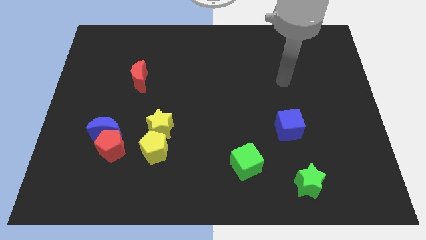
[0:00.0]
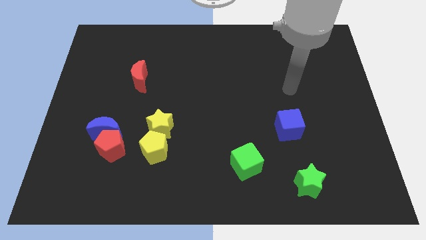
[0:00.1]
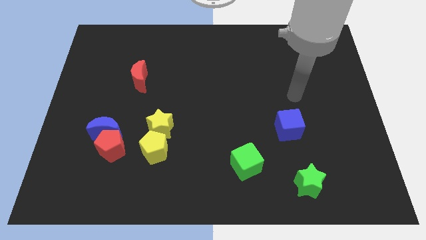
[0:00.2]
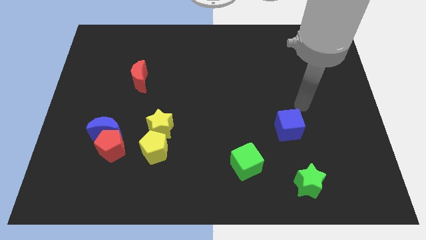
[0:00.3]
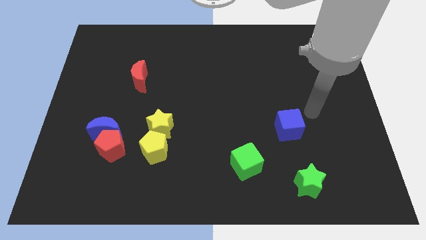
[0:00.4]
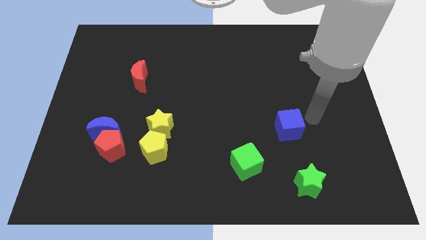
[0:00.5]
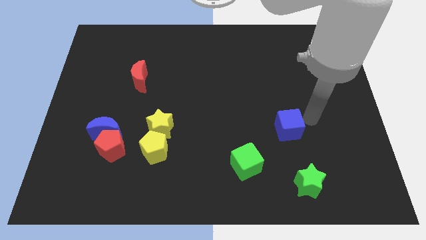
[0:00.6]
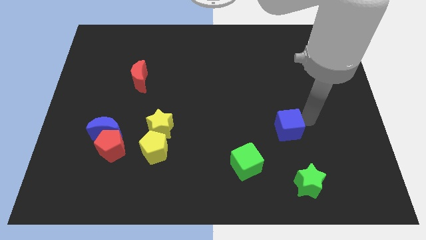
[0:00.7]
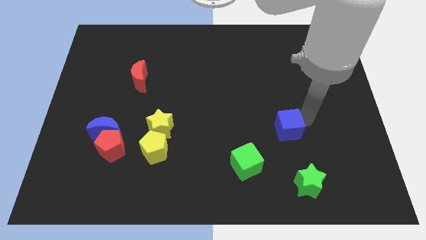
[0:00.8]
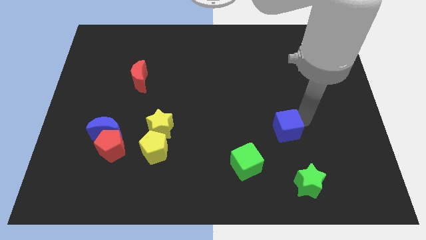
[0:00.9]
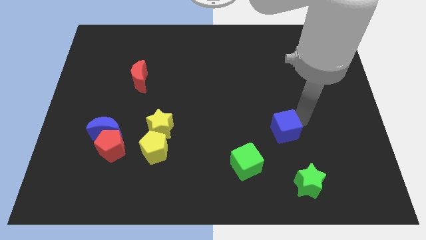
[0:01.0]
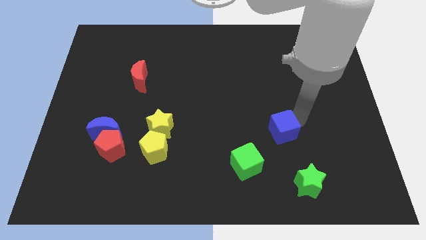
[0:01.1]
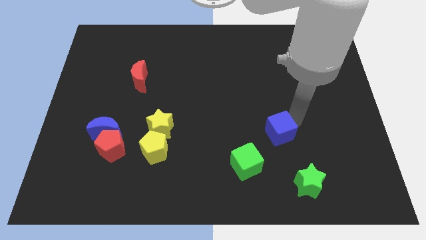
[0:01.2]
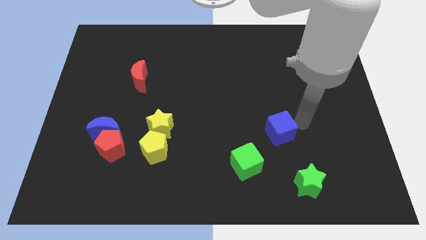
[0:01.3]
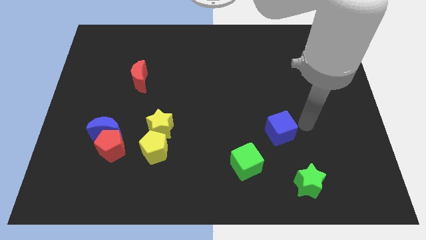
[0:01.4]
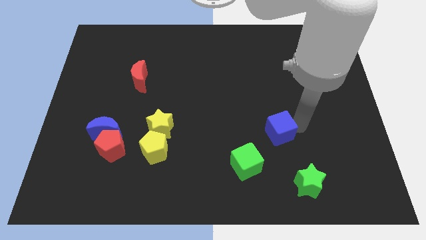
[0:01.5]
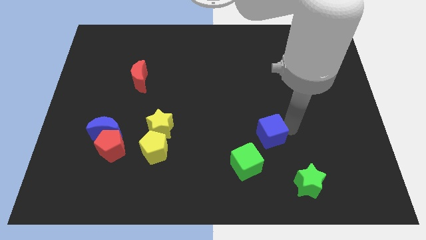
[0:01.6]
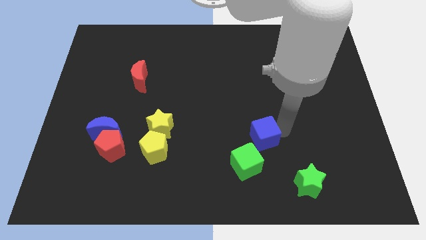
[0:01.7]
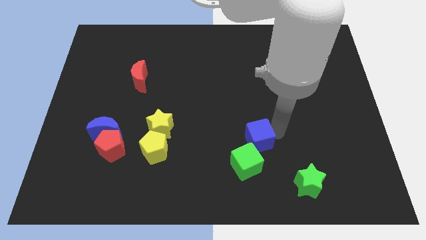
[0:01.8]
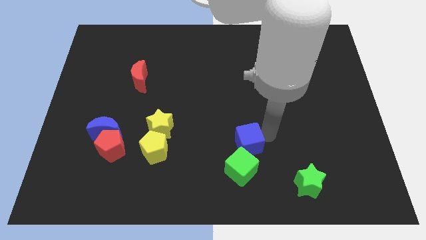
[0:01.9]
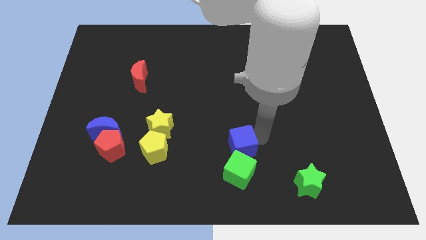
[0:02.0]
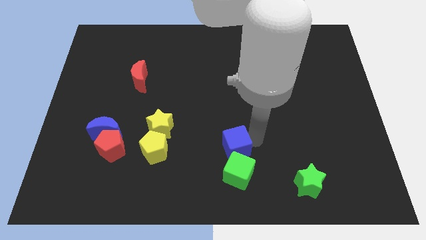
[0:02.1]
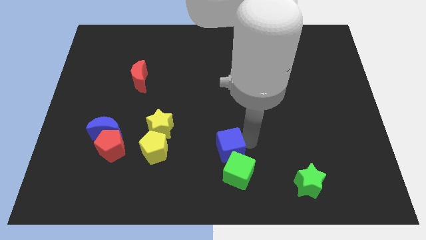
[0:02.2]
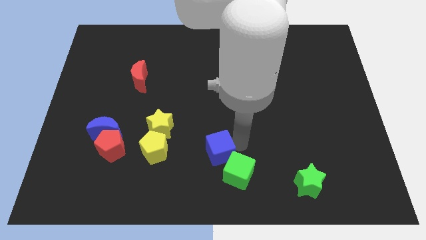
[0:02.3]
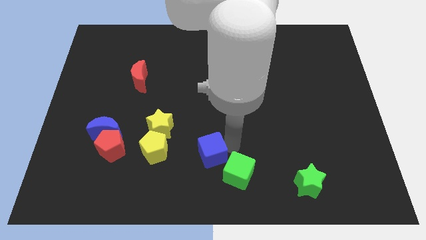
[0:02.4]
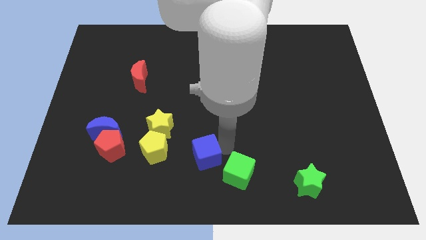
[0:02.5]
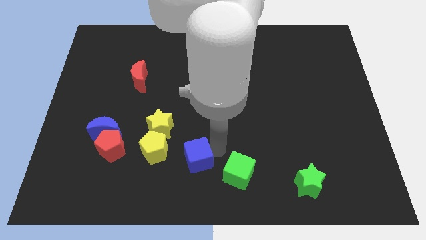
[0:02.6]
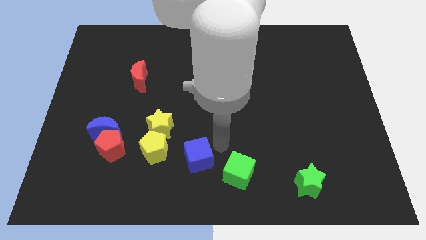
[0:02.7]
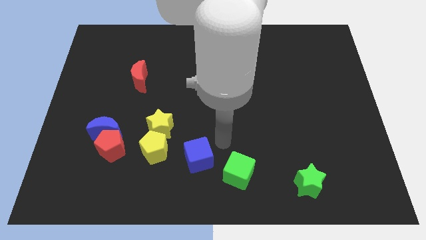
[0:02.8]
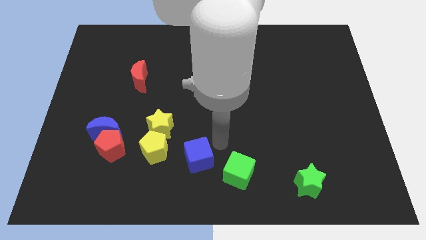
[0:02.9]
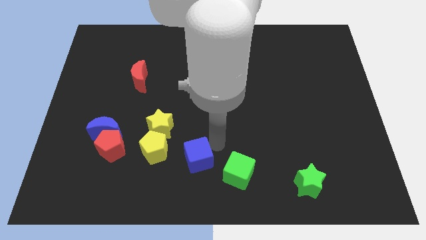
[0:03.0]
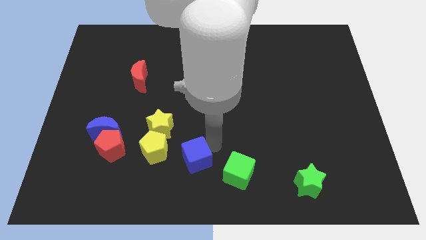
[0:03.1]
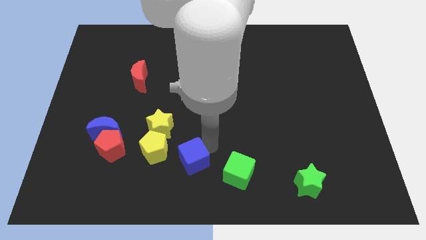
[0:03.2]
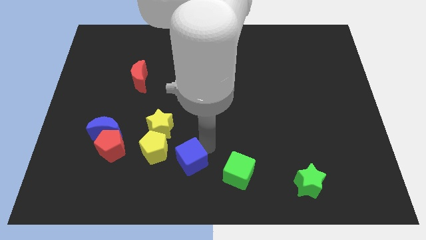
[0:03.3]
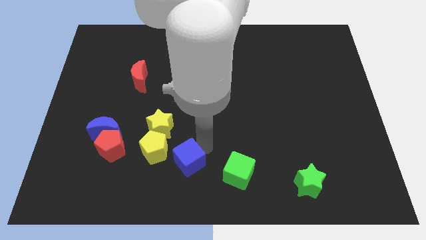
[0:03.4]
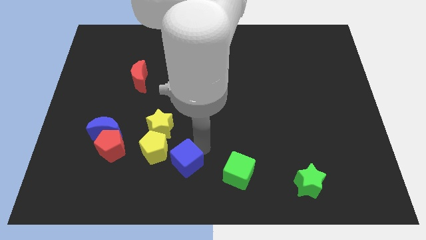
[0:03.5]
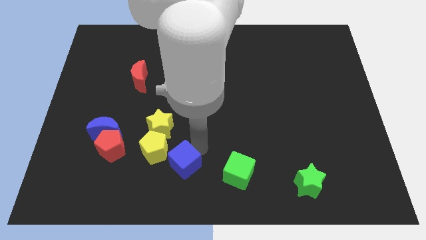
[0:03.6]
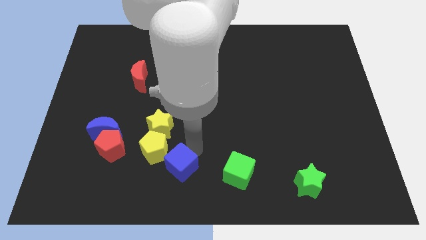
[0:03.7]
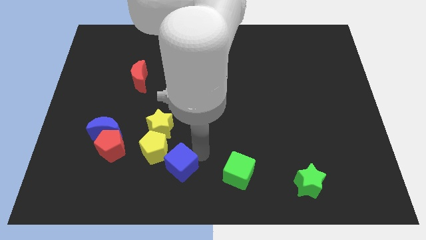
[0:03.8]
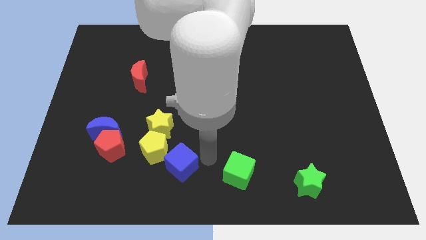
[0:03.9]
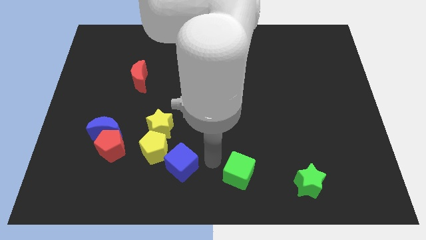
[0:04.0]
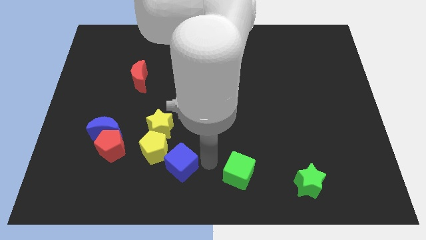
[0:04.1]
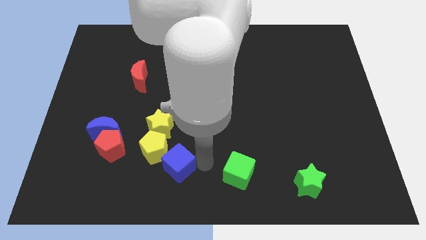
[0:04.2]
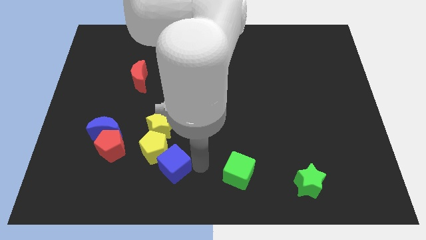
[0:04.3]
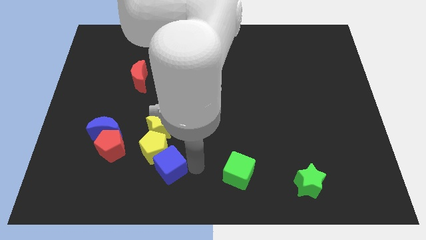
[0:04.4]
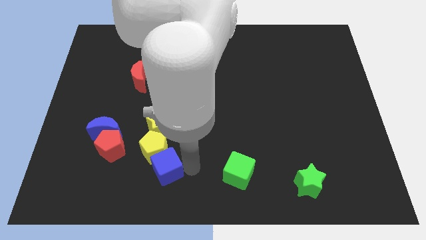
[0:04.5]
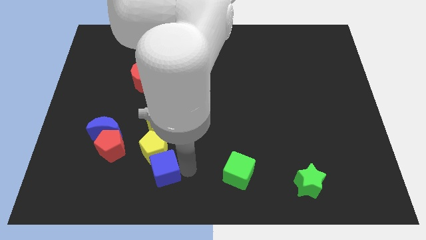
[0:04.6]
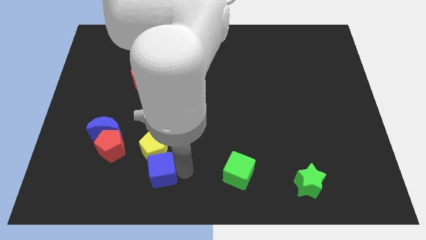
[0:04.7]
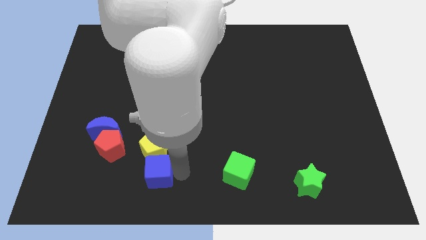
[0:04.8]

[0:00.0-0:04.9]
move the blue cube to the bottom right of the red pentagon

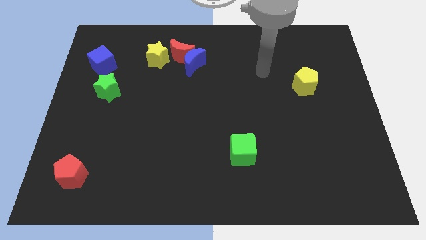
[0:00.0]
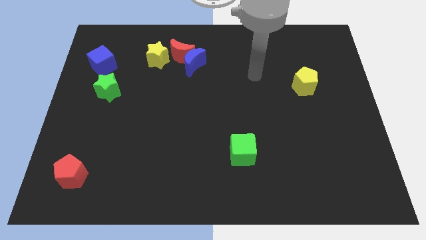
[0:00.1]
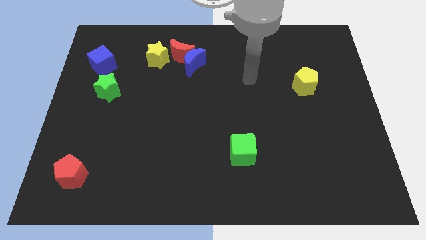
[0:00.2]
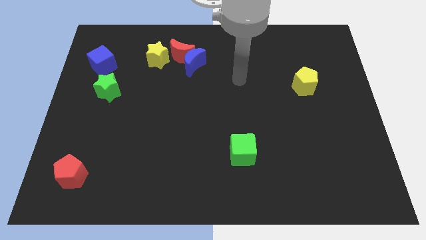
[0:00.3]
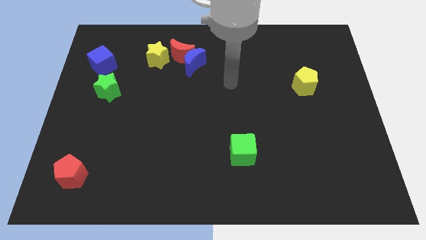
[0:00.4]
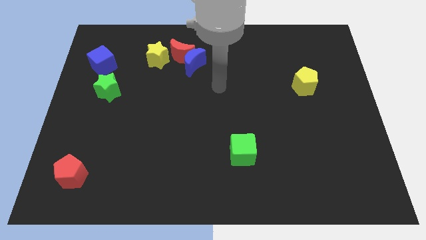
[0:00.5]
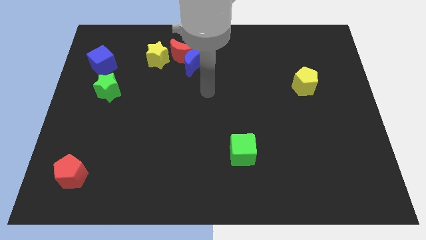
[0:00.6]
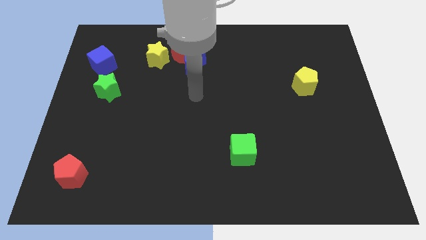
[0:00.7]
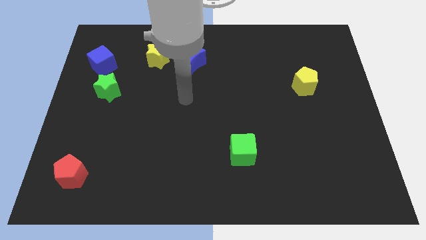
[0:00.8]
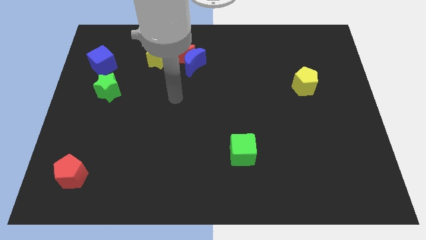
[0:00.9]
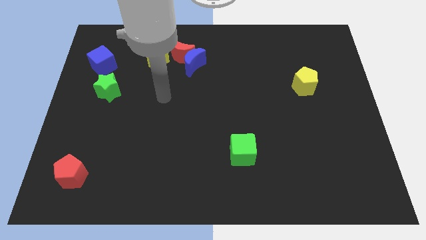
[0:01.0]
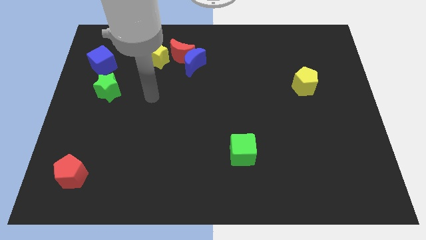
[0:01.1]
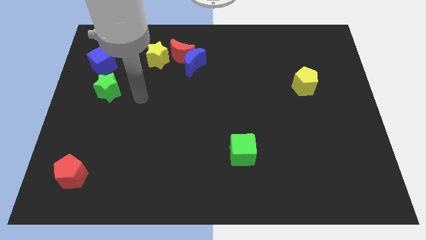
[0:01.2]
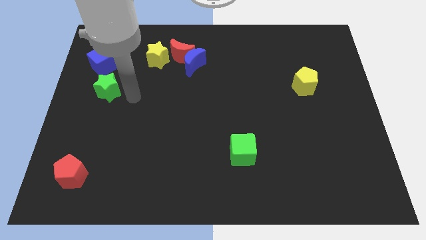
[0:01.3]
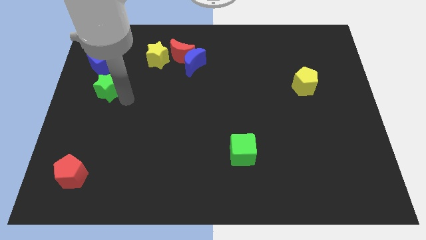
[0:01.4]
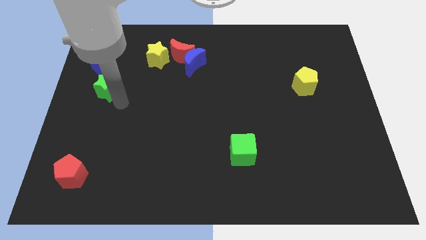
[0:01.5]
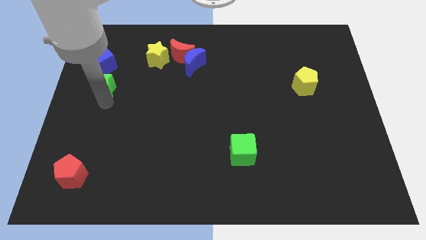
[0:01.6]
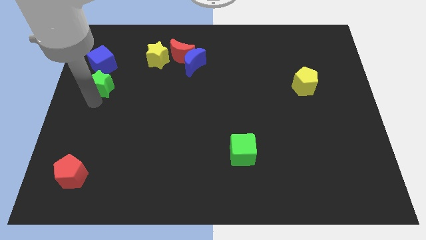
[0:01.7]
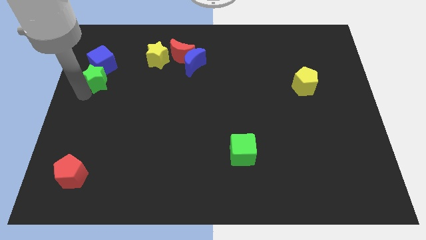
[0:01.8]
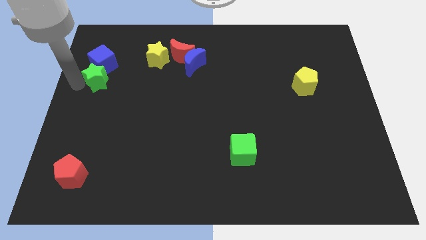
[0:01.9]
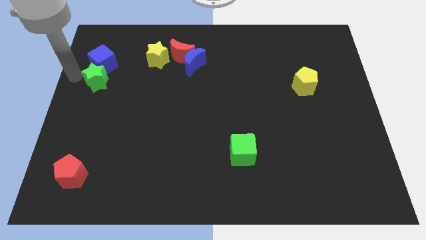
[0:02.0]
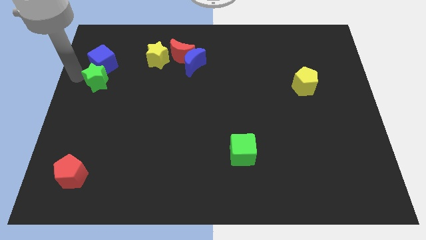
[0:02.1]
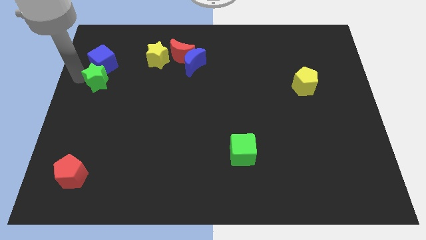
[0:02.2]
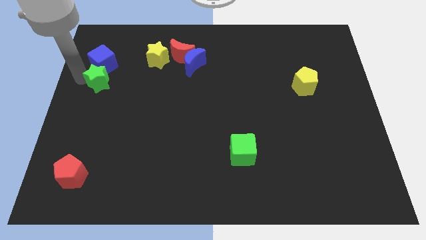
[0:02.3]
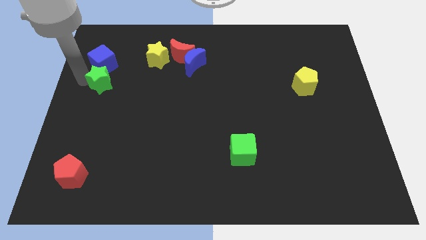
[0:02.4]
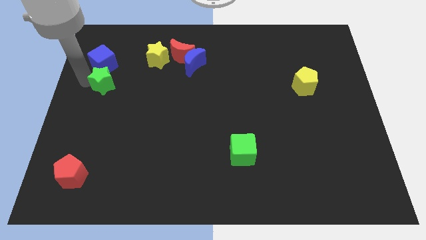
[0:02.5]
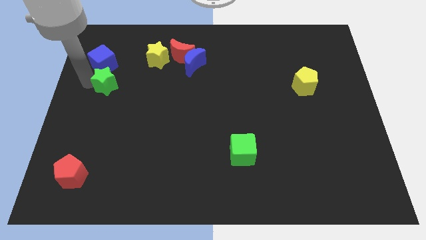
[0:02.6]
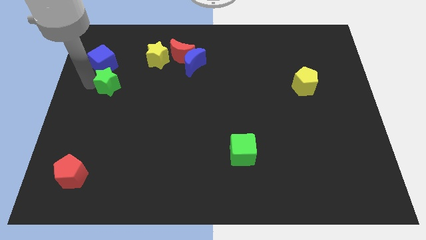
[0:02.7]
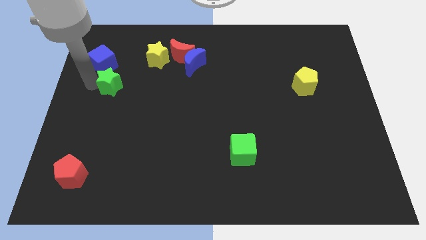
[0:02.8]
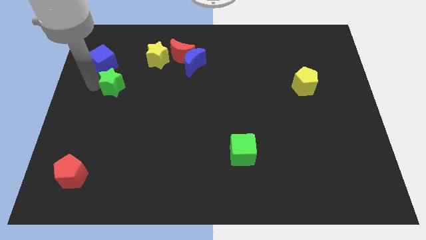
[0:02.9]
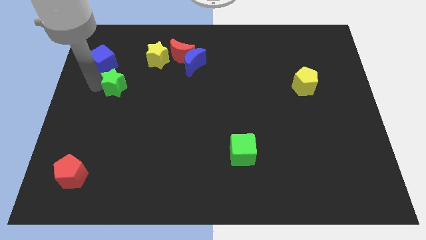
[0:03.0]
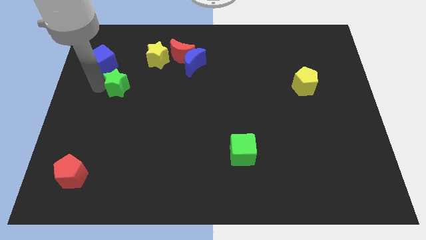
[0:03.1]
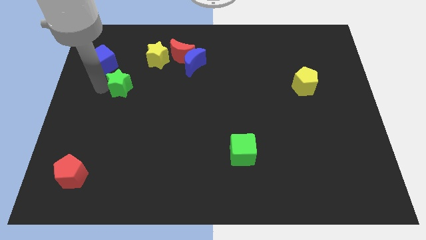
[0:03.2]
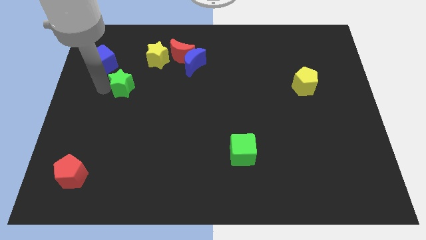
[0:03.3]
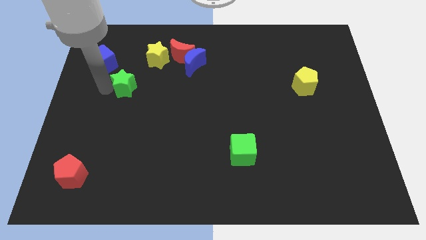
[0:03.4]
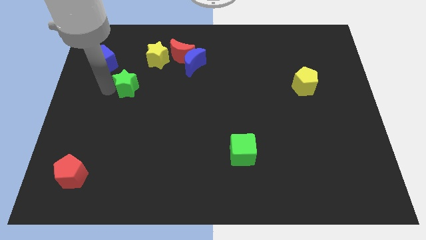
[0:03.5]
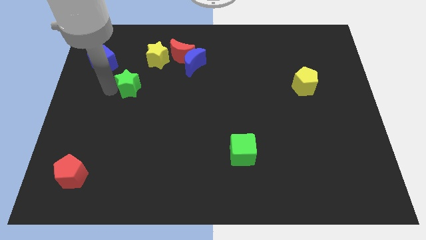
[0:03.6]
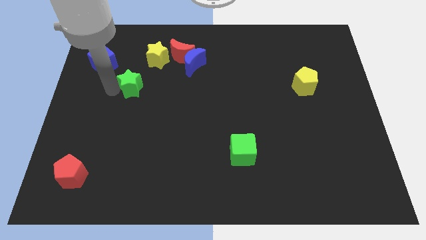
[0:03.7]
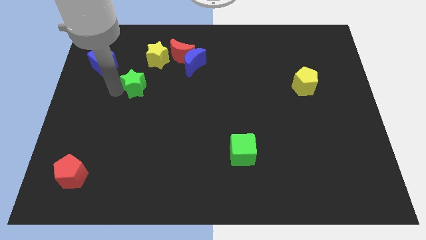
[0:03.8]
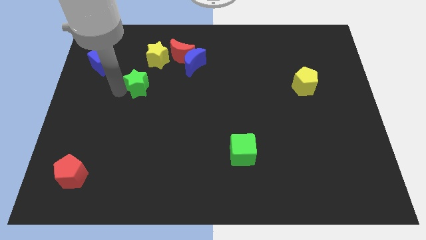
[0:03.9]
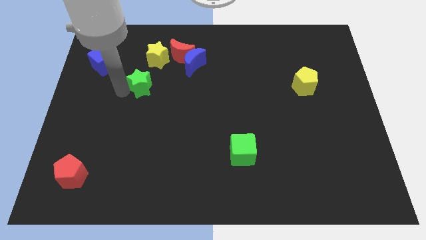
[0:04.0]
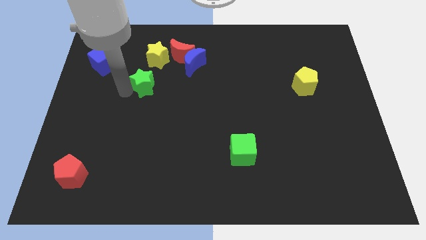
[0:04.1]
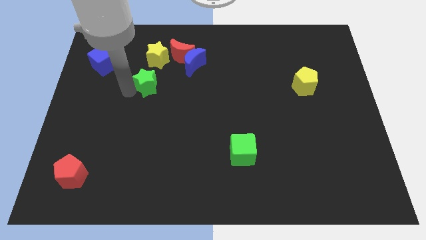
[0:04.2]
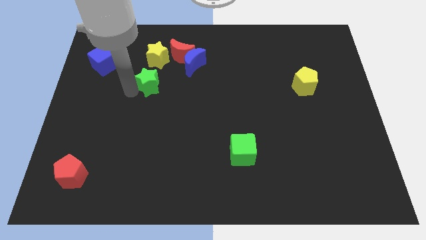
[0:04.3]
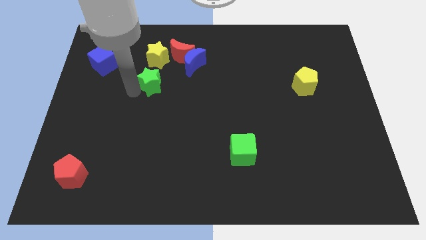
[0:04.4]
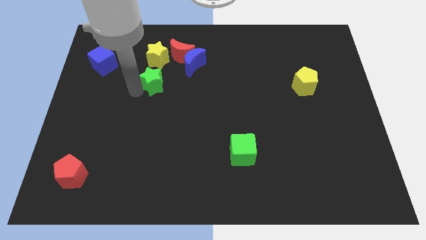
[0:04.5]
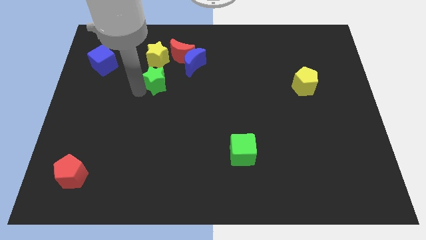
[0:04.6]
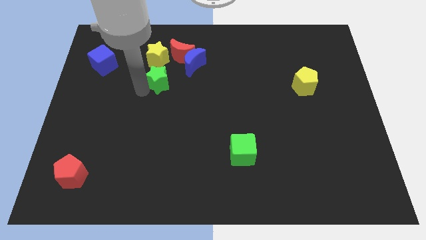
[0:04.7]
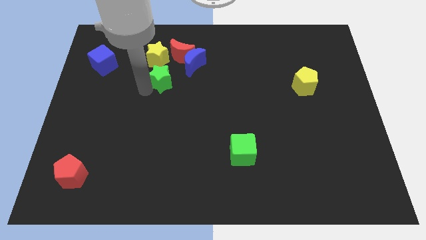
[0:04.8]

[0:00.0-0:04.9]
slide the green star to the bottom right side of the yellow star
